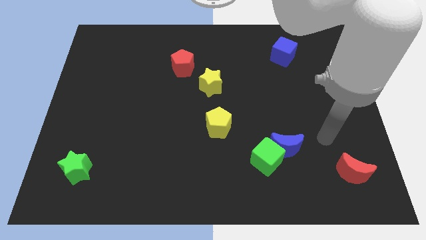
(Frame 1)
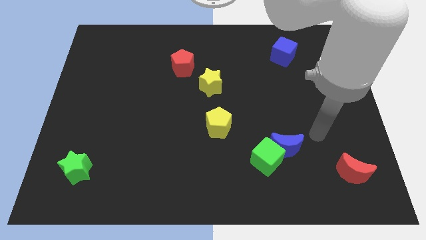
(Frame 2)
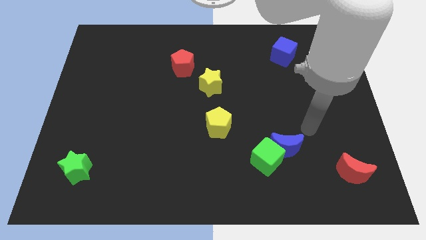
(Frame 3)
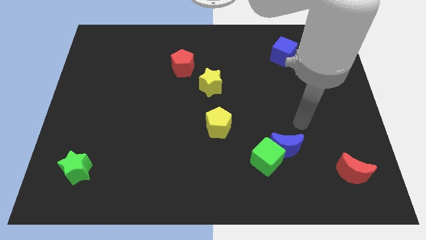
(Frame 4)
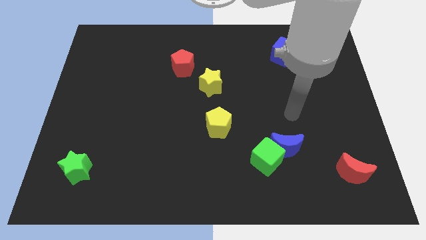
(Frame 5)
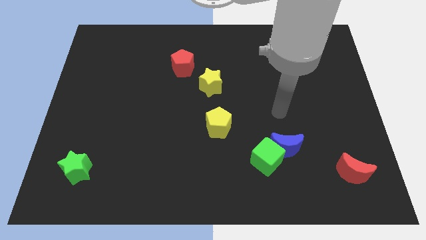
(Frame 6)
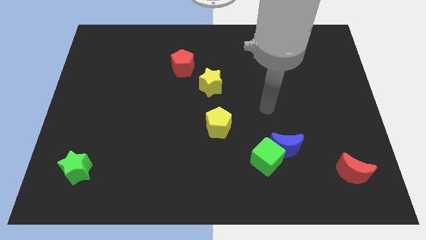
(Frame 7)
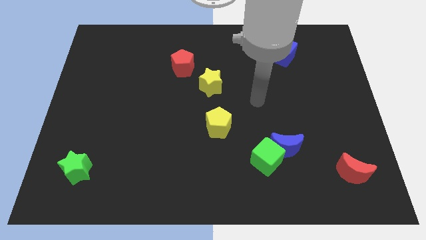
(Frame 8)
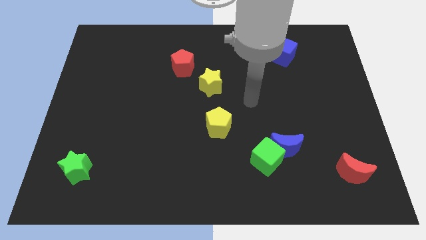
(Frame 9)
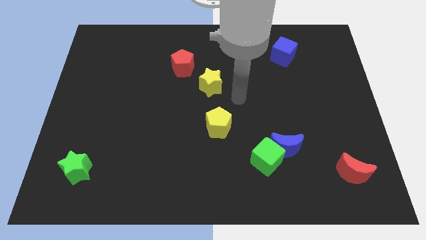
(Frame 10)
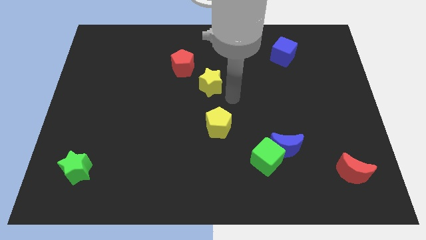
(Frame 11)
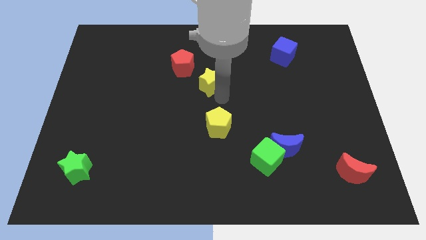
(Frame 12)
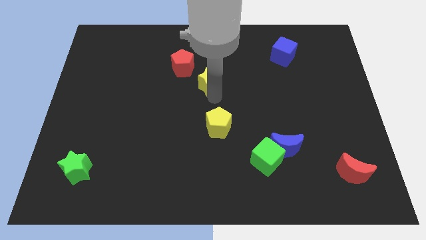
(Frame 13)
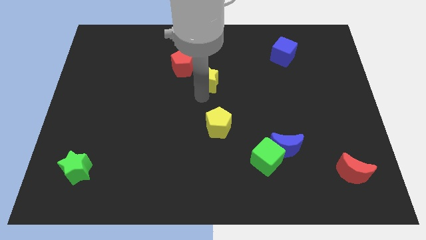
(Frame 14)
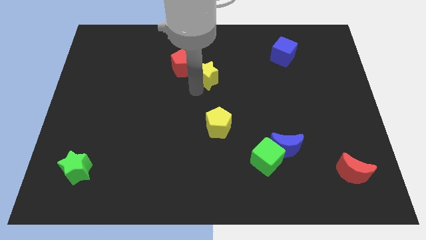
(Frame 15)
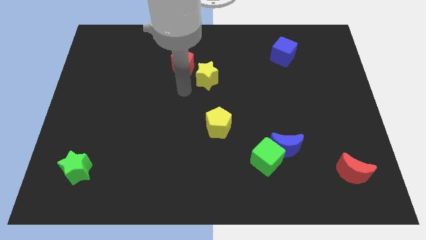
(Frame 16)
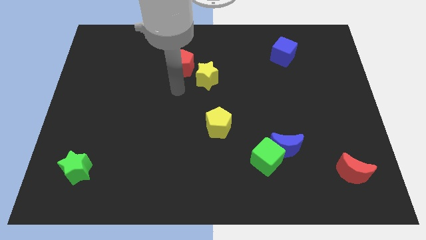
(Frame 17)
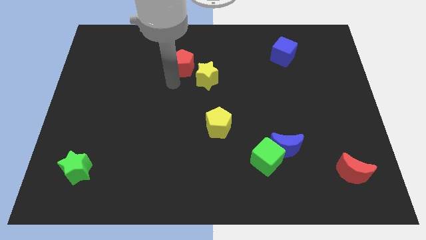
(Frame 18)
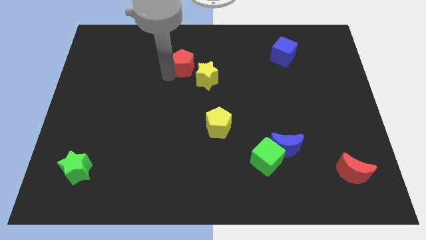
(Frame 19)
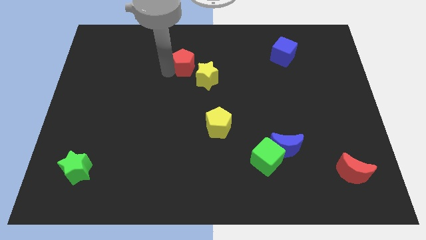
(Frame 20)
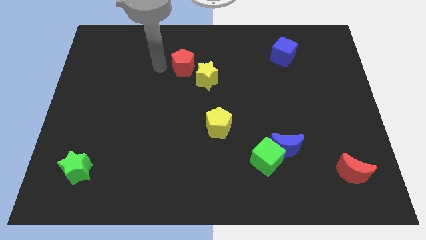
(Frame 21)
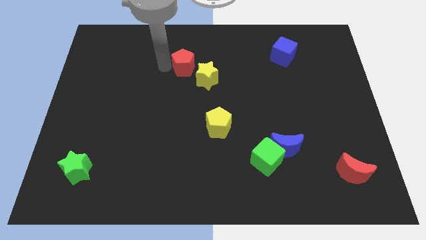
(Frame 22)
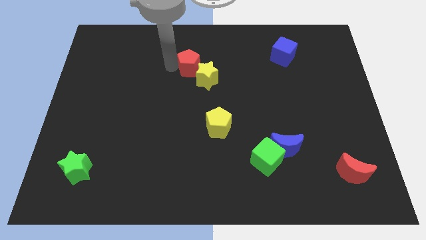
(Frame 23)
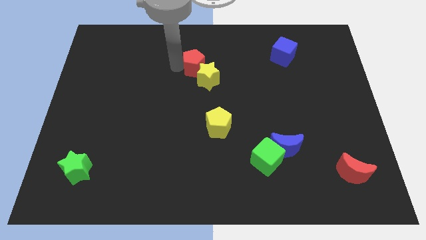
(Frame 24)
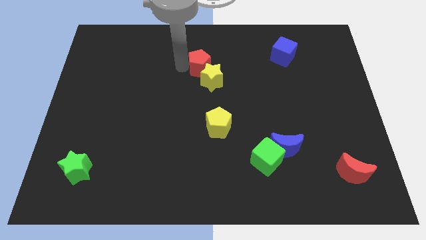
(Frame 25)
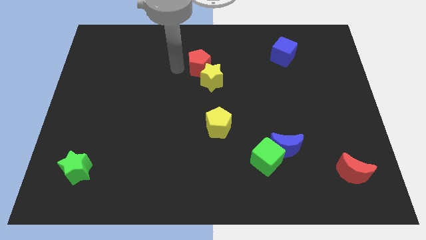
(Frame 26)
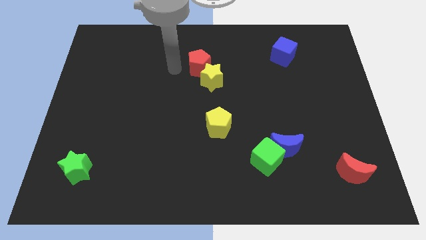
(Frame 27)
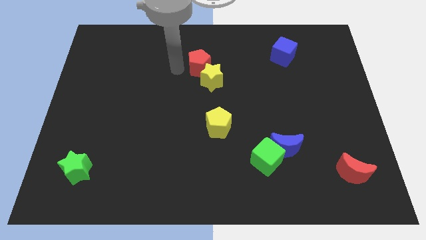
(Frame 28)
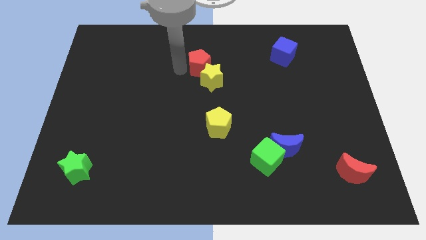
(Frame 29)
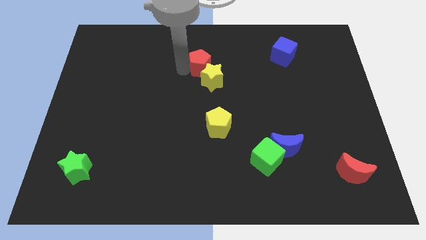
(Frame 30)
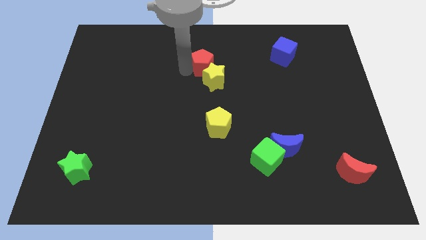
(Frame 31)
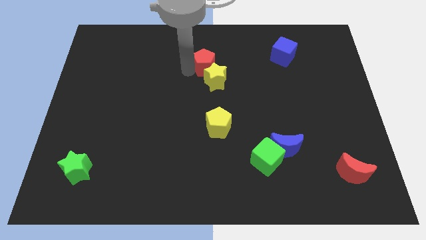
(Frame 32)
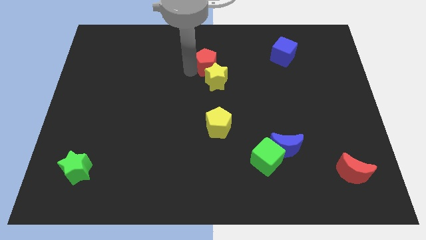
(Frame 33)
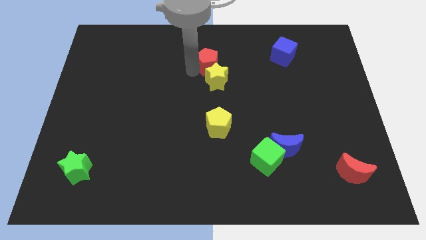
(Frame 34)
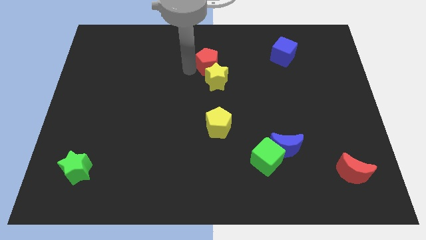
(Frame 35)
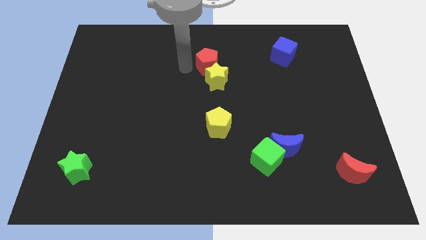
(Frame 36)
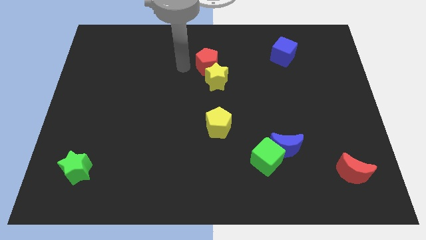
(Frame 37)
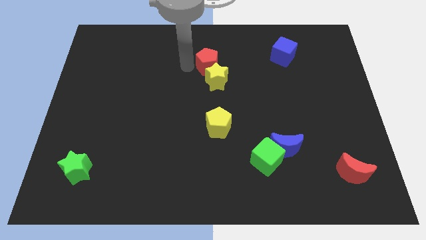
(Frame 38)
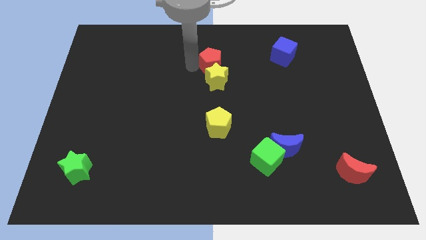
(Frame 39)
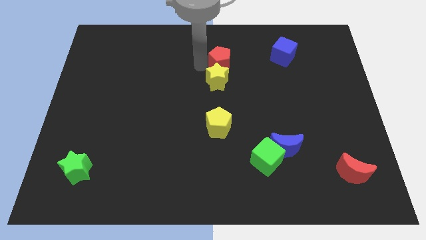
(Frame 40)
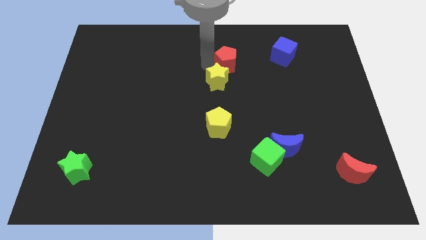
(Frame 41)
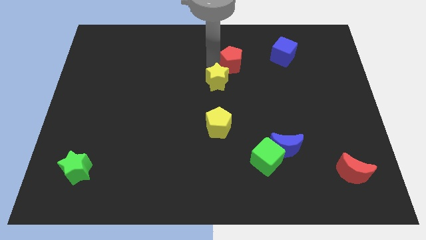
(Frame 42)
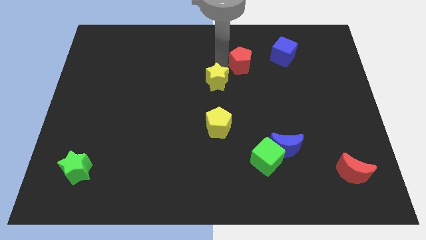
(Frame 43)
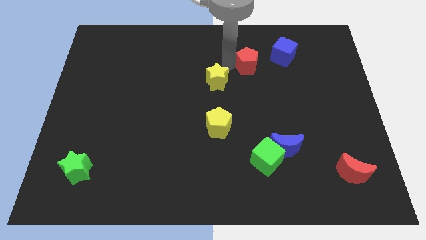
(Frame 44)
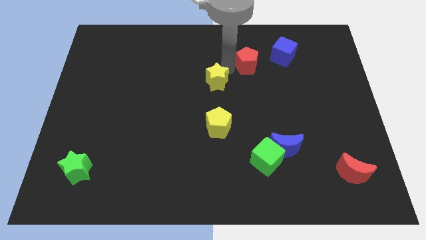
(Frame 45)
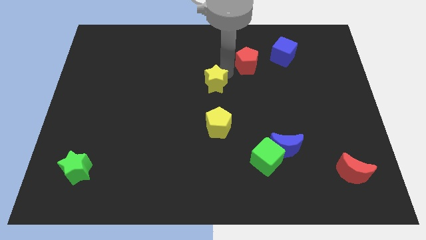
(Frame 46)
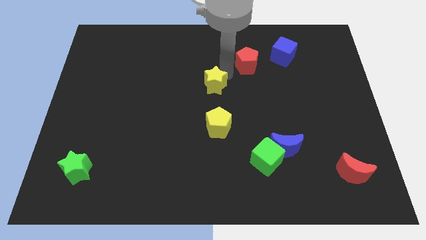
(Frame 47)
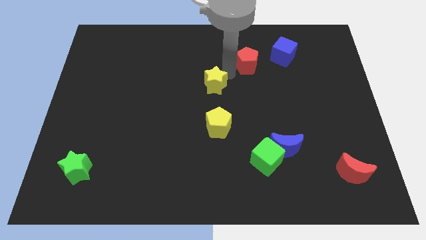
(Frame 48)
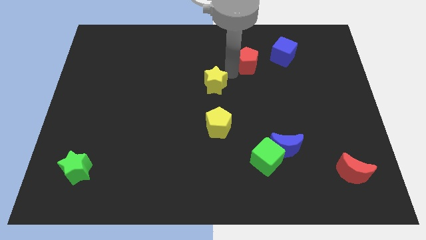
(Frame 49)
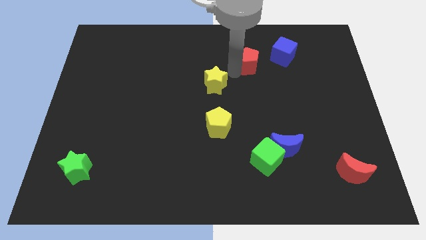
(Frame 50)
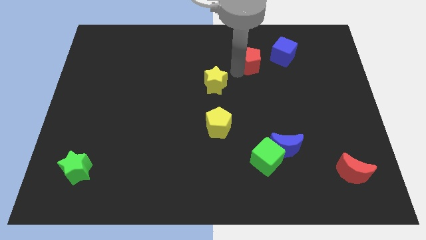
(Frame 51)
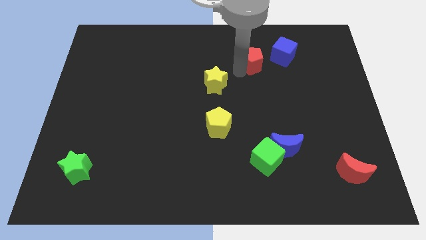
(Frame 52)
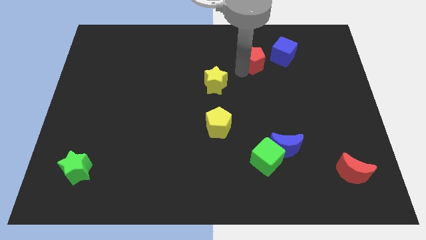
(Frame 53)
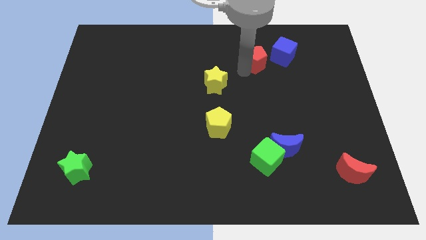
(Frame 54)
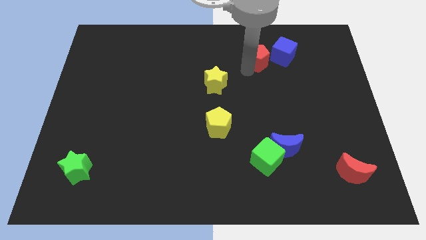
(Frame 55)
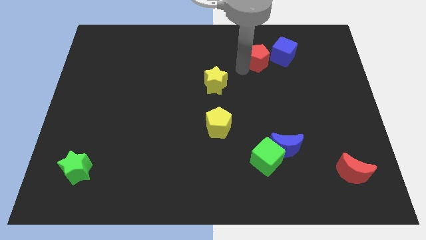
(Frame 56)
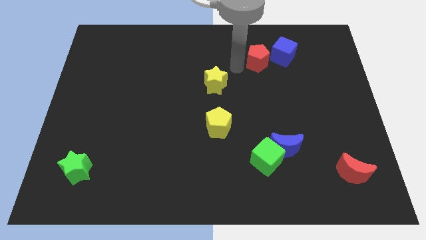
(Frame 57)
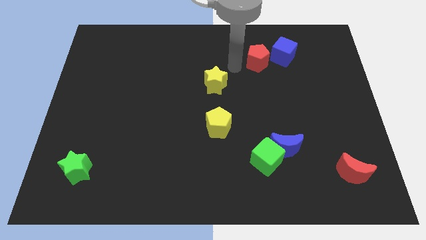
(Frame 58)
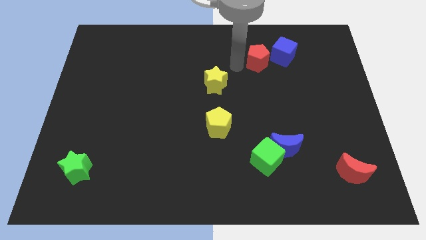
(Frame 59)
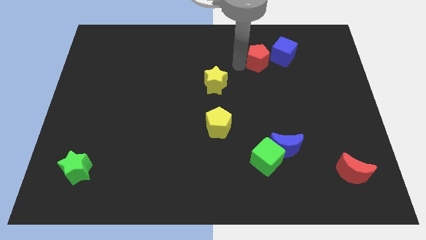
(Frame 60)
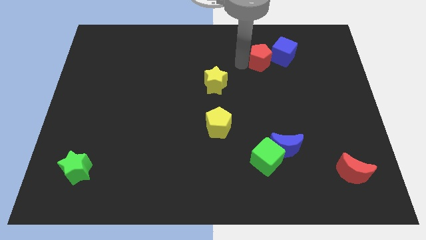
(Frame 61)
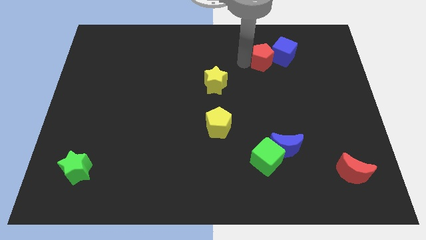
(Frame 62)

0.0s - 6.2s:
put the red pentagon towards the blue cube

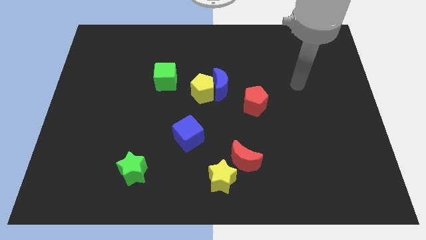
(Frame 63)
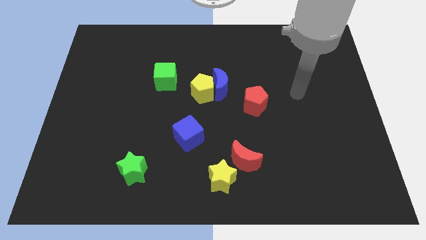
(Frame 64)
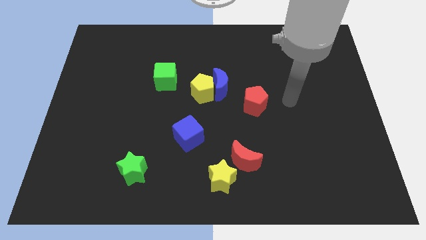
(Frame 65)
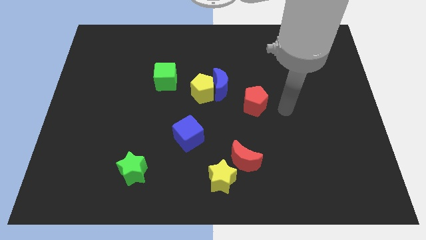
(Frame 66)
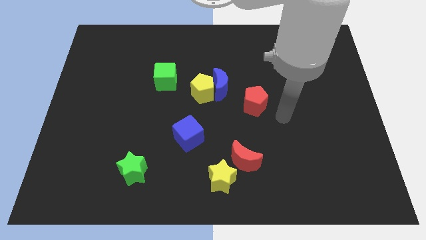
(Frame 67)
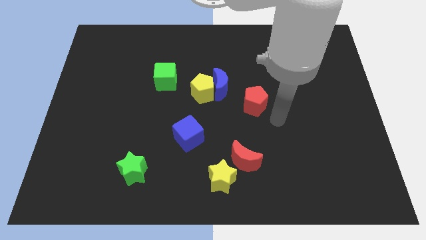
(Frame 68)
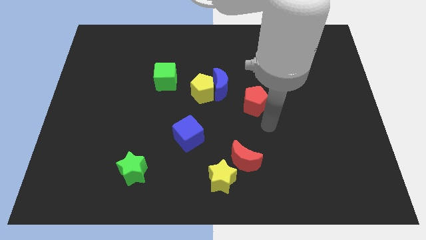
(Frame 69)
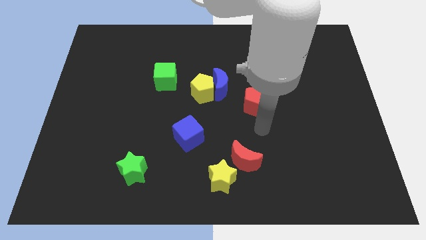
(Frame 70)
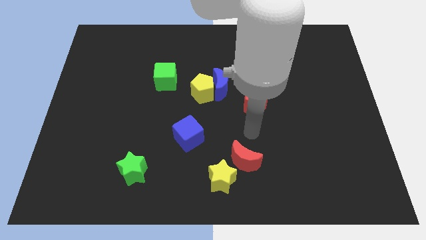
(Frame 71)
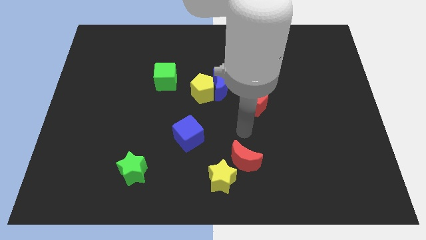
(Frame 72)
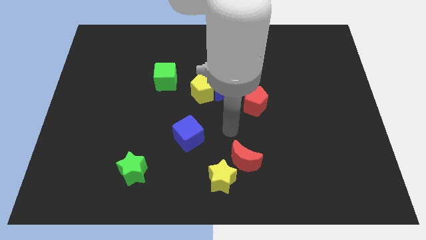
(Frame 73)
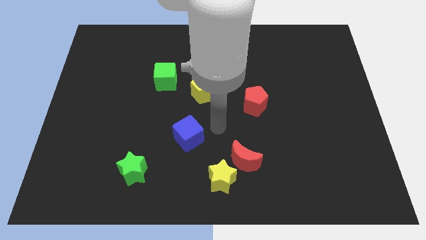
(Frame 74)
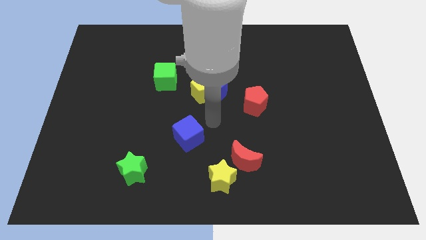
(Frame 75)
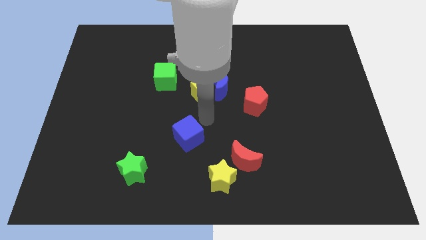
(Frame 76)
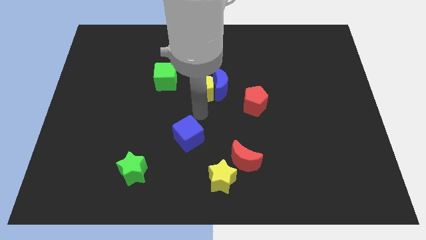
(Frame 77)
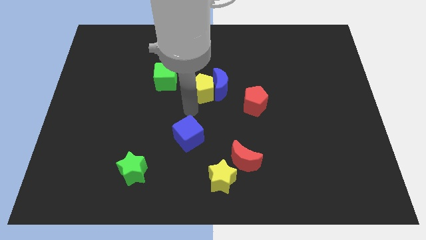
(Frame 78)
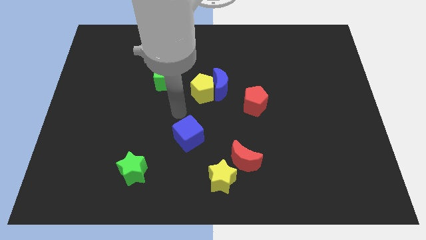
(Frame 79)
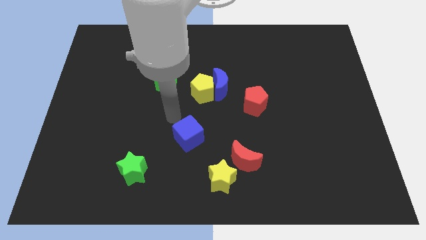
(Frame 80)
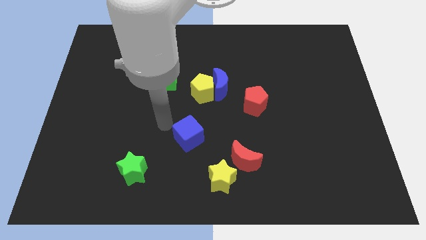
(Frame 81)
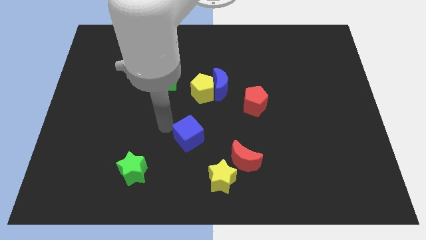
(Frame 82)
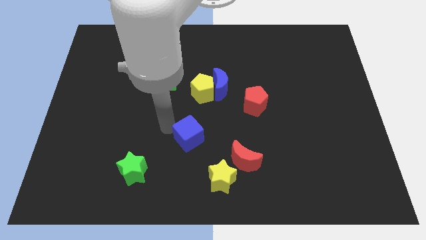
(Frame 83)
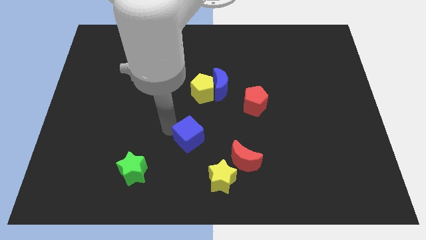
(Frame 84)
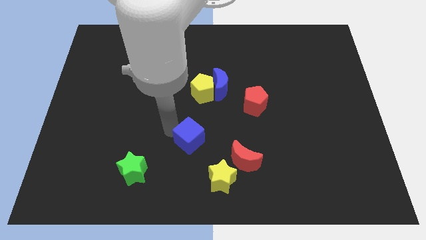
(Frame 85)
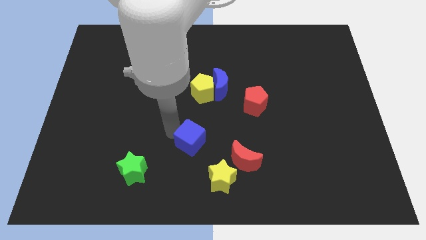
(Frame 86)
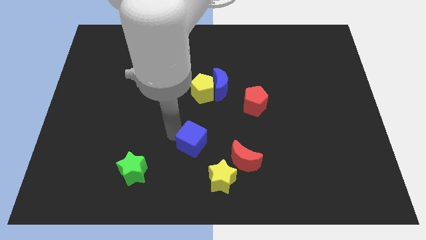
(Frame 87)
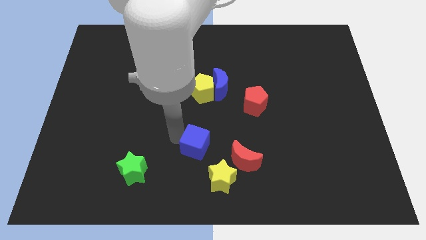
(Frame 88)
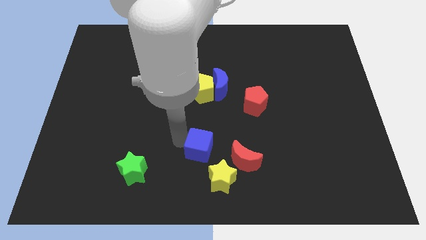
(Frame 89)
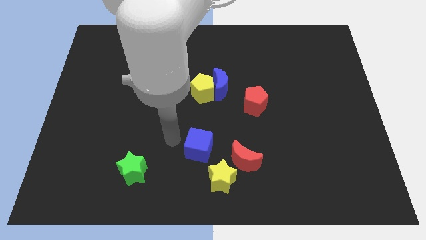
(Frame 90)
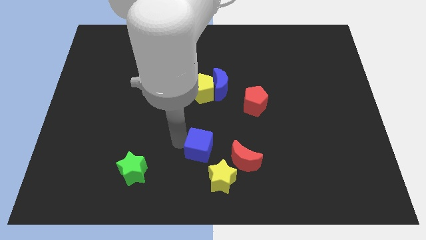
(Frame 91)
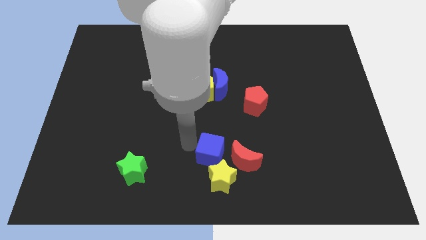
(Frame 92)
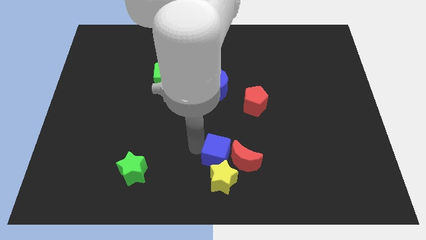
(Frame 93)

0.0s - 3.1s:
move the blue cube close to the red moon
